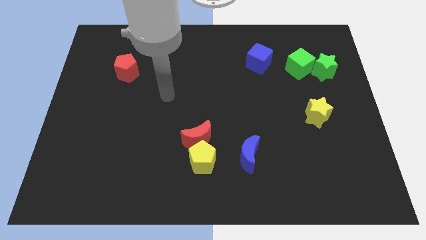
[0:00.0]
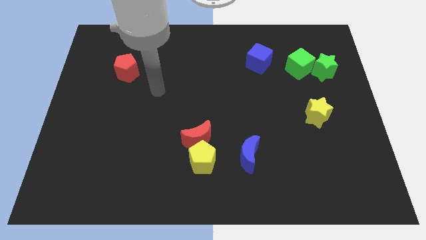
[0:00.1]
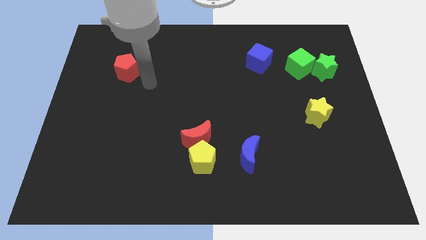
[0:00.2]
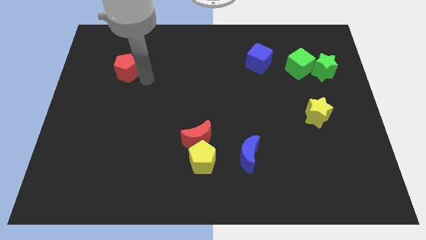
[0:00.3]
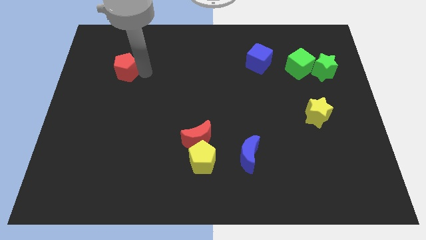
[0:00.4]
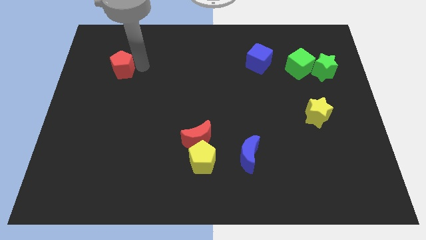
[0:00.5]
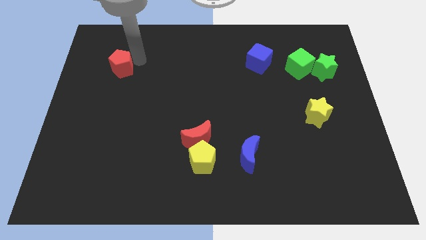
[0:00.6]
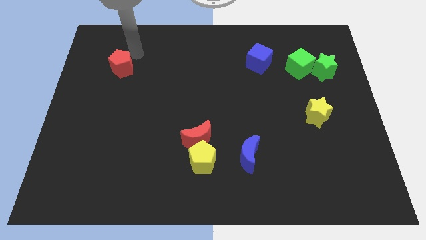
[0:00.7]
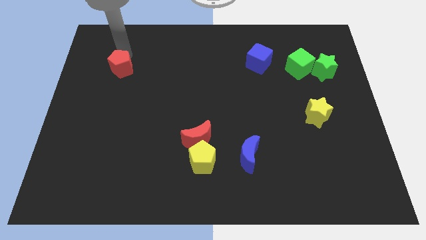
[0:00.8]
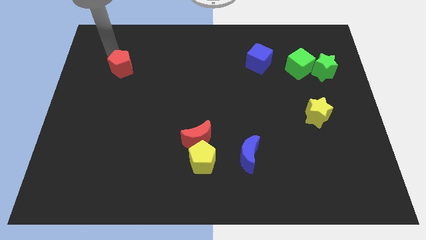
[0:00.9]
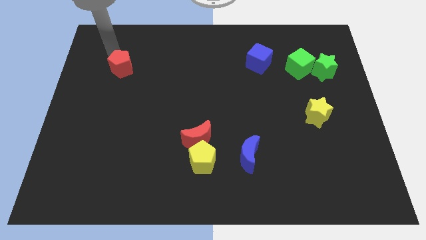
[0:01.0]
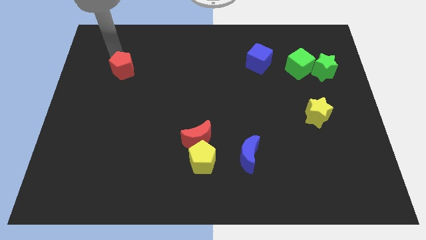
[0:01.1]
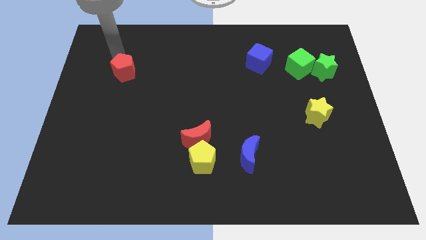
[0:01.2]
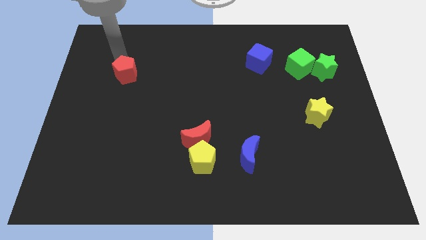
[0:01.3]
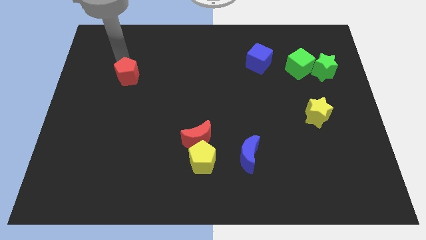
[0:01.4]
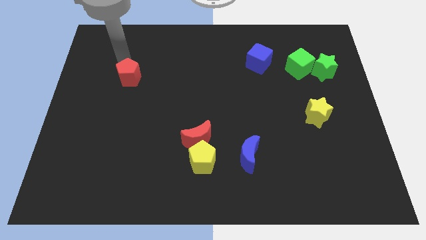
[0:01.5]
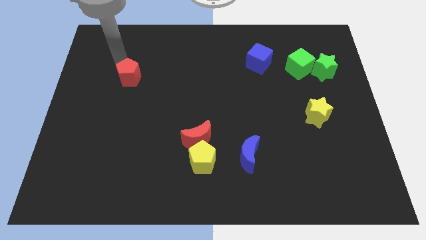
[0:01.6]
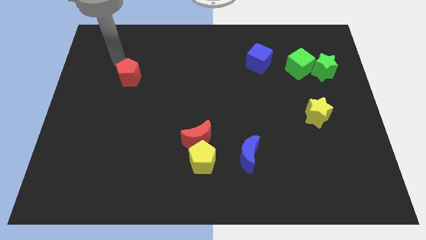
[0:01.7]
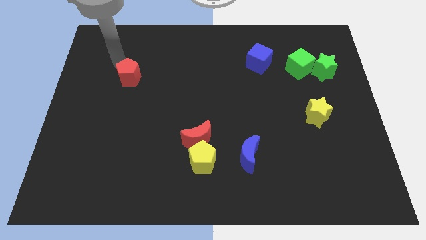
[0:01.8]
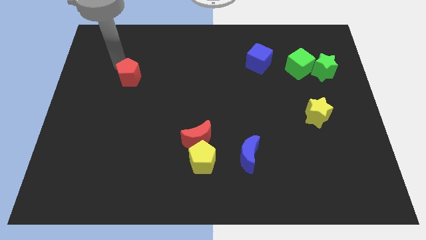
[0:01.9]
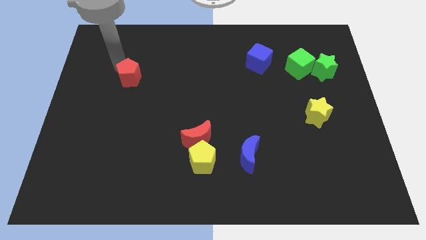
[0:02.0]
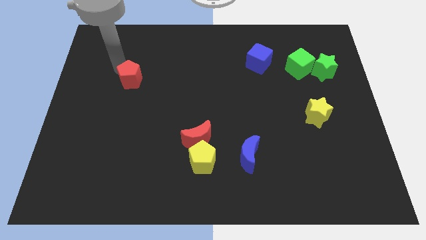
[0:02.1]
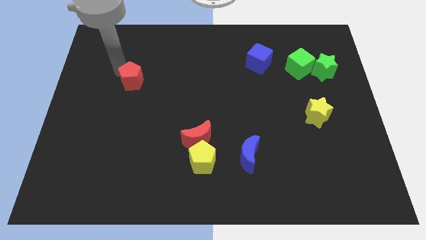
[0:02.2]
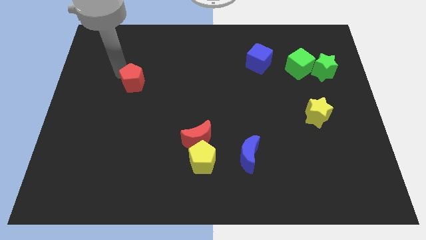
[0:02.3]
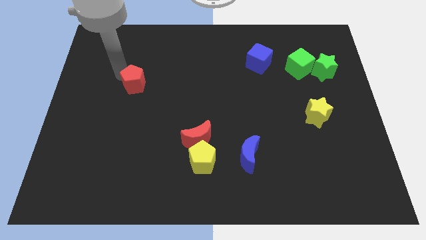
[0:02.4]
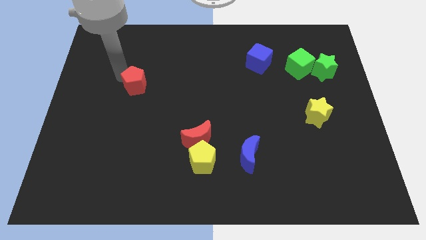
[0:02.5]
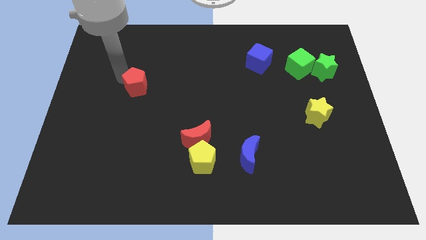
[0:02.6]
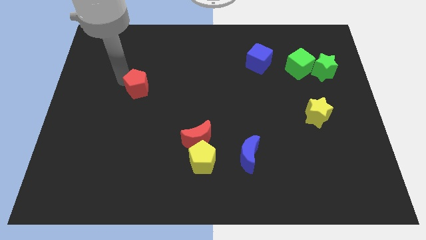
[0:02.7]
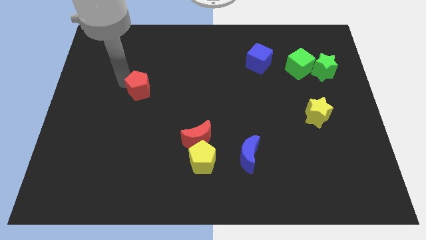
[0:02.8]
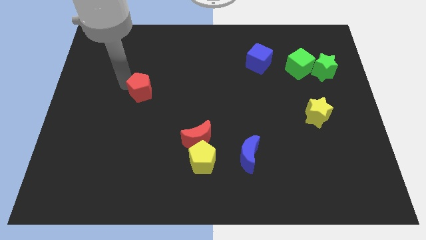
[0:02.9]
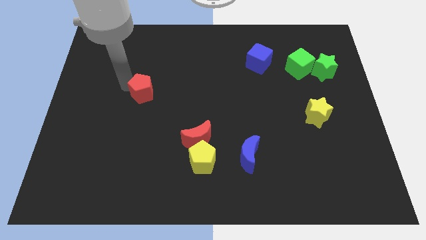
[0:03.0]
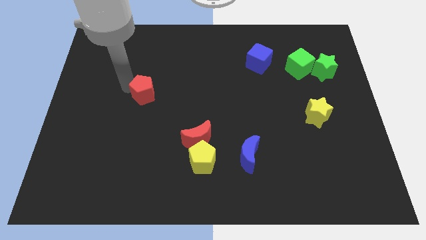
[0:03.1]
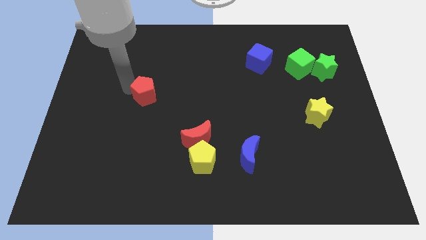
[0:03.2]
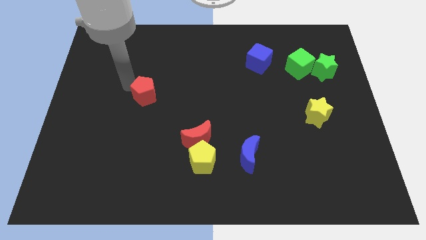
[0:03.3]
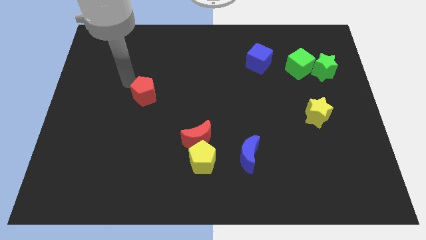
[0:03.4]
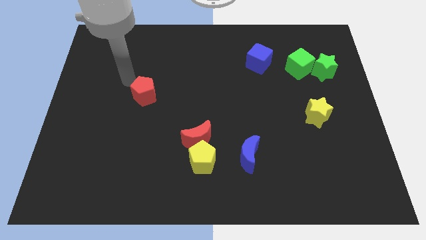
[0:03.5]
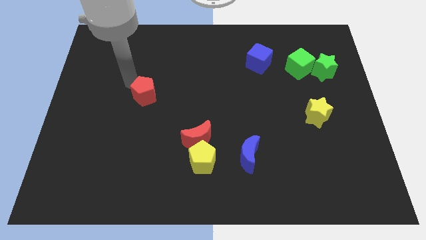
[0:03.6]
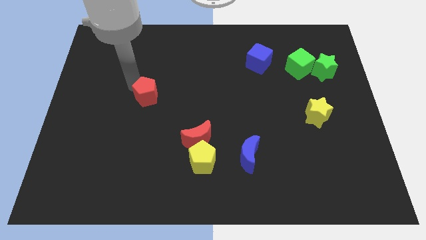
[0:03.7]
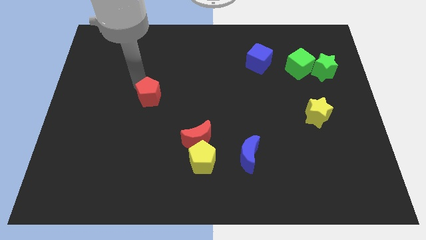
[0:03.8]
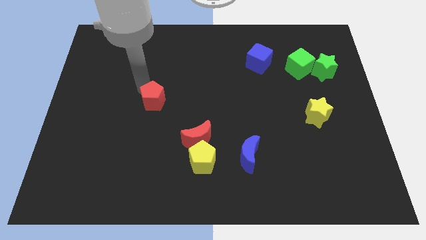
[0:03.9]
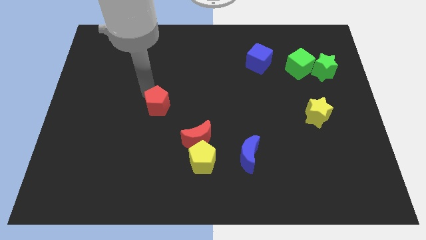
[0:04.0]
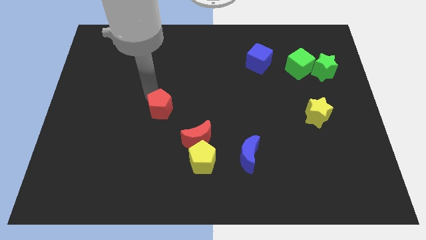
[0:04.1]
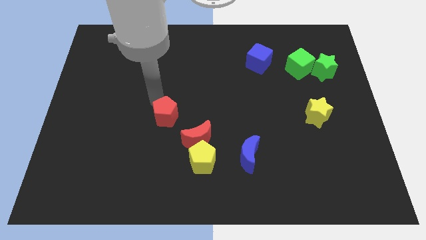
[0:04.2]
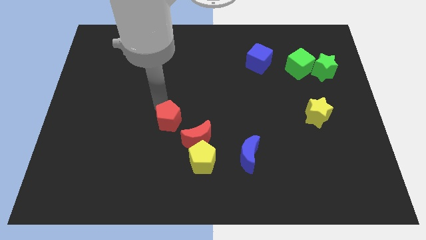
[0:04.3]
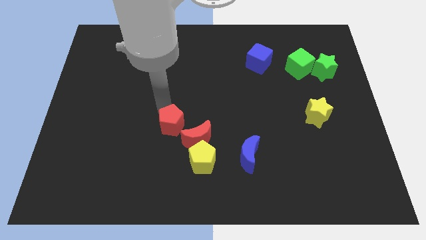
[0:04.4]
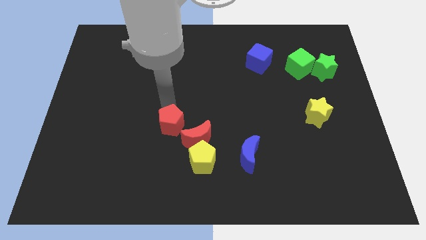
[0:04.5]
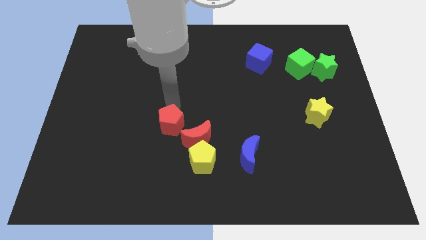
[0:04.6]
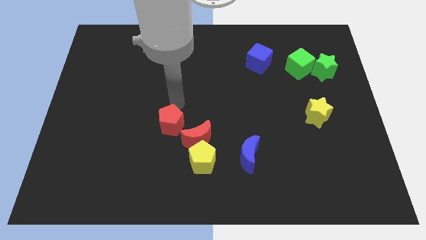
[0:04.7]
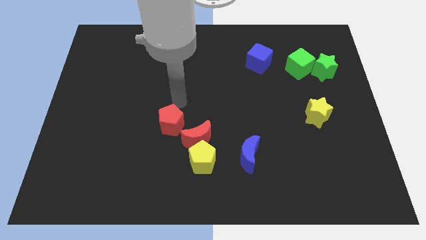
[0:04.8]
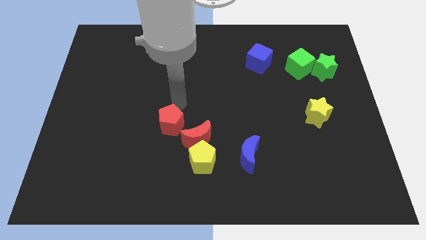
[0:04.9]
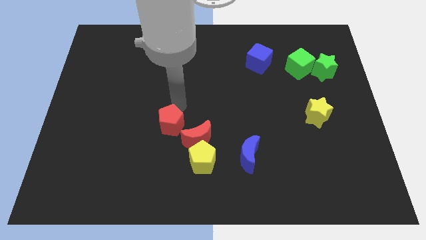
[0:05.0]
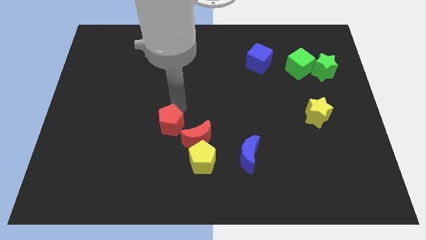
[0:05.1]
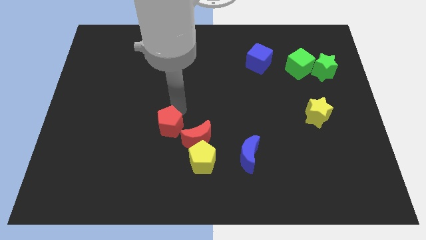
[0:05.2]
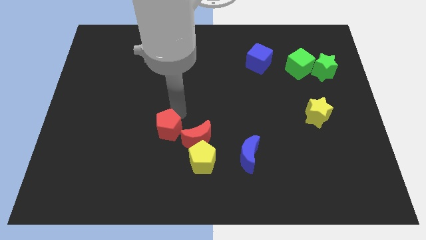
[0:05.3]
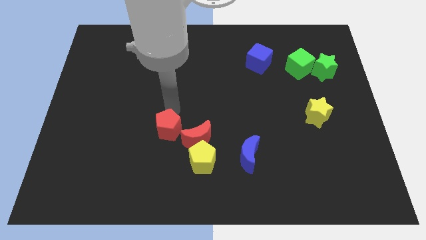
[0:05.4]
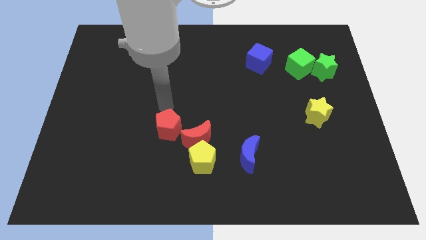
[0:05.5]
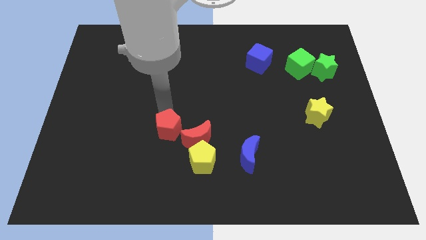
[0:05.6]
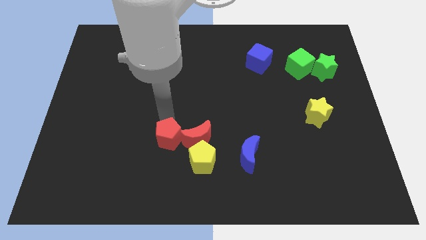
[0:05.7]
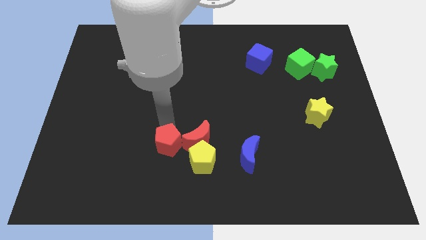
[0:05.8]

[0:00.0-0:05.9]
move the red pentagon to the bottom left of the red moon

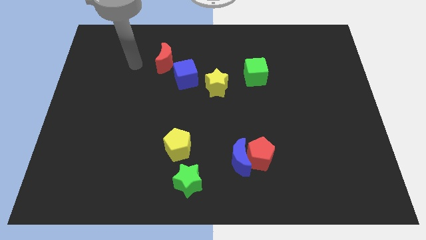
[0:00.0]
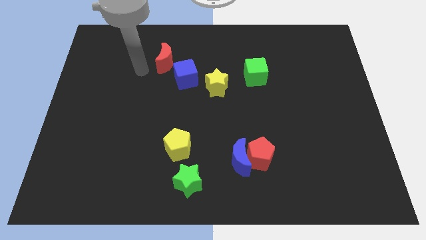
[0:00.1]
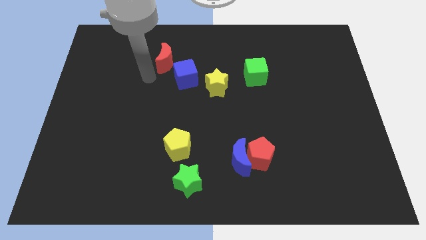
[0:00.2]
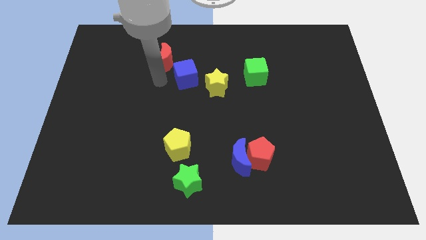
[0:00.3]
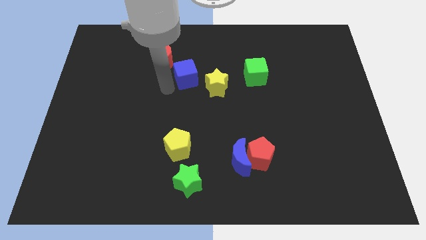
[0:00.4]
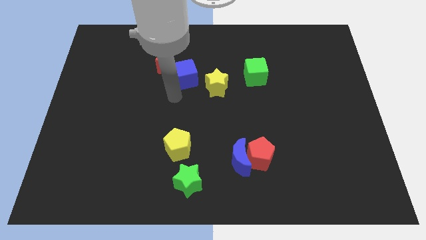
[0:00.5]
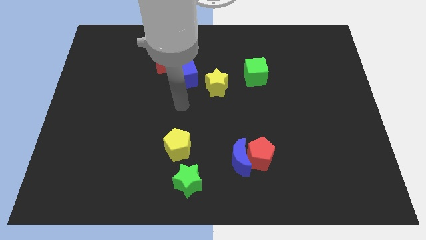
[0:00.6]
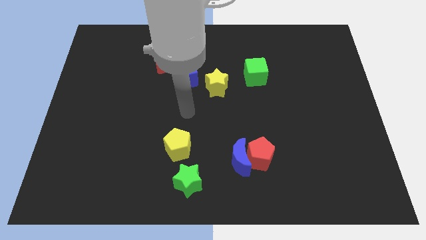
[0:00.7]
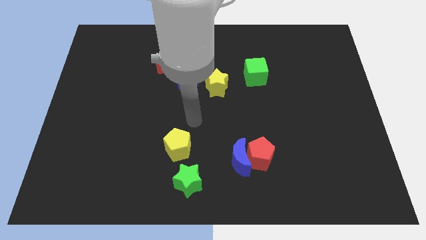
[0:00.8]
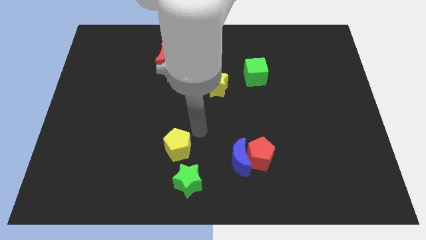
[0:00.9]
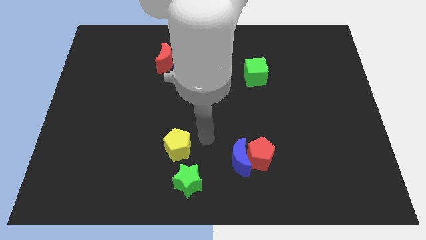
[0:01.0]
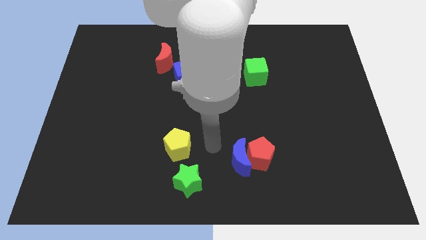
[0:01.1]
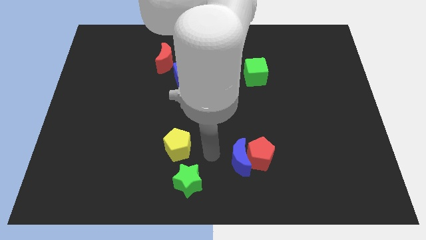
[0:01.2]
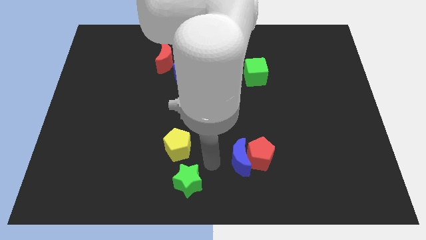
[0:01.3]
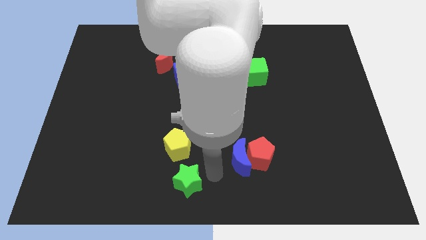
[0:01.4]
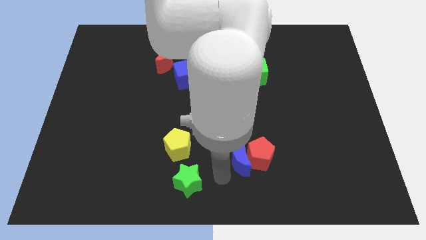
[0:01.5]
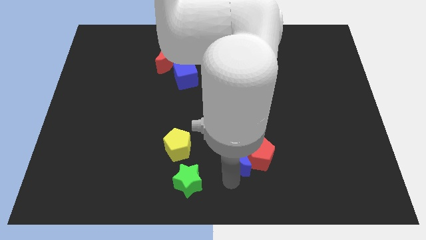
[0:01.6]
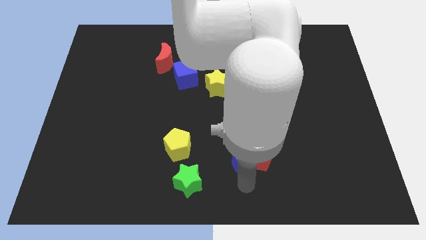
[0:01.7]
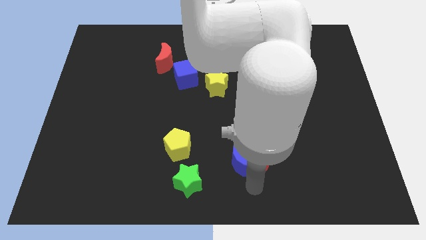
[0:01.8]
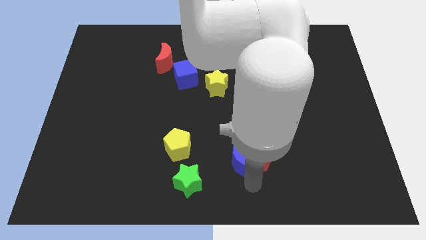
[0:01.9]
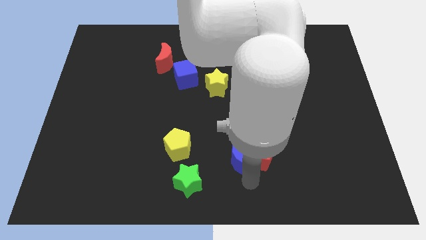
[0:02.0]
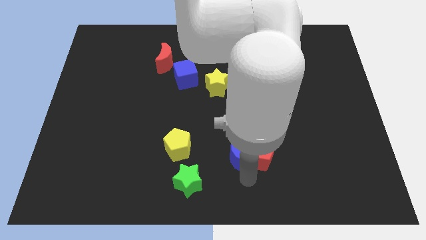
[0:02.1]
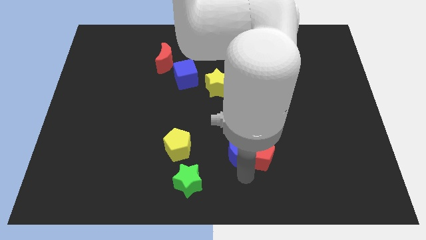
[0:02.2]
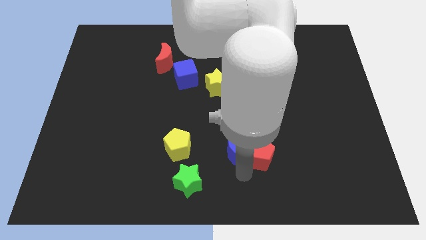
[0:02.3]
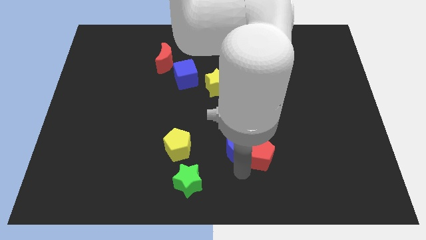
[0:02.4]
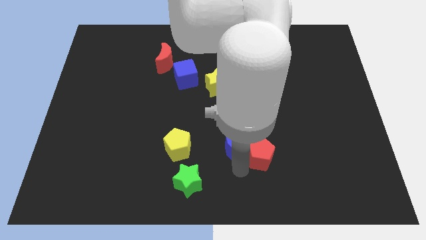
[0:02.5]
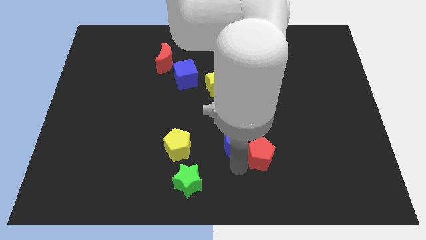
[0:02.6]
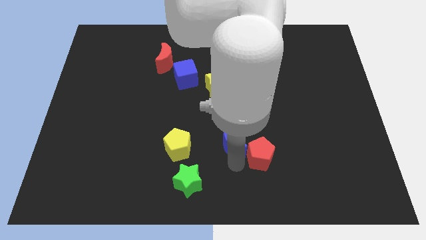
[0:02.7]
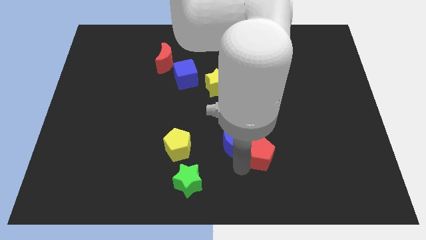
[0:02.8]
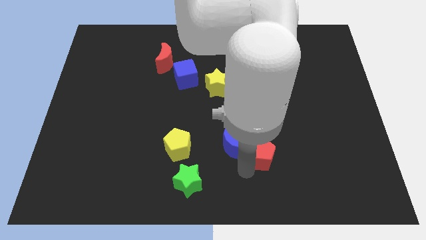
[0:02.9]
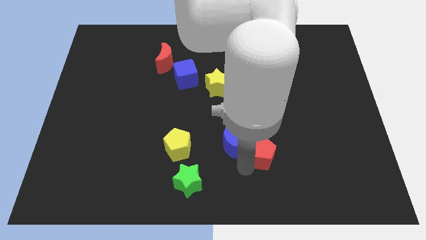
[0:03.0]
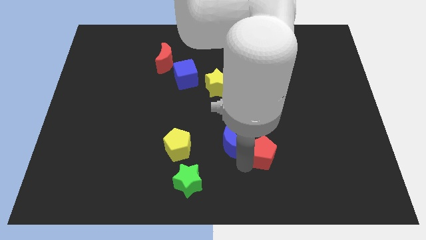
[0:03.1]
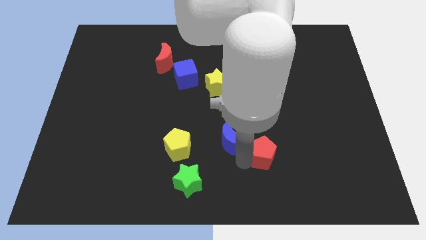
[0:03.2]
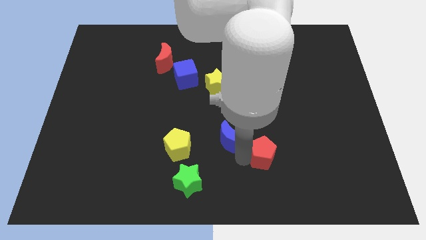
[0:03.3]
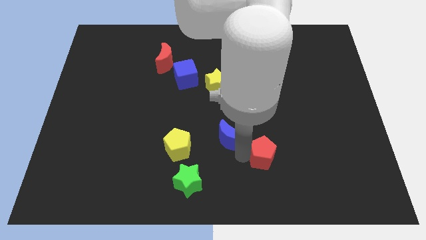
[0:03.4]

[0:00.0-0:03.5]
move the blue moon below the yellow star
